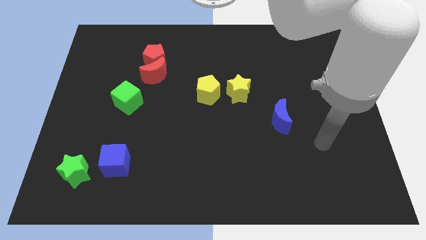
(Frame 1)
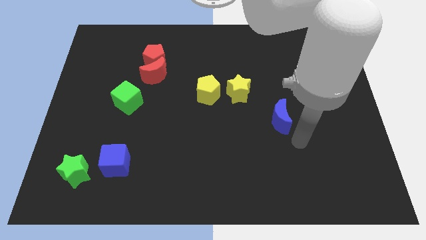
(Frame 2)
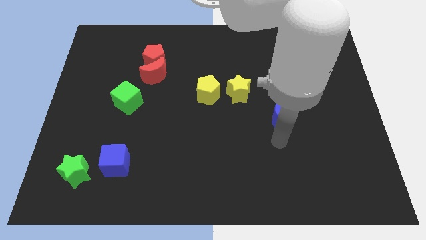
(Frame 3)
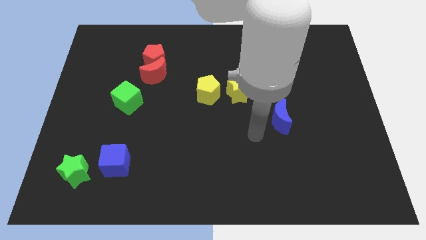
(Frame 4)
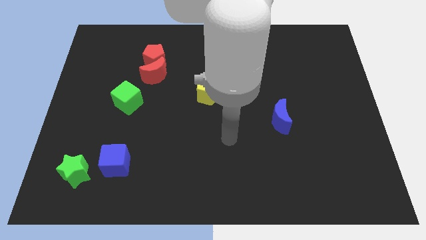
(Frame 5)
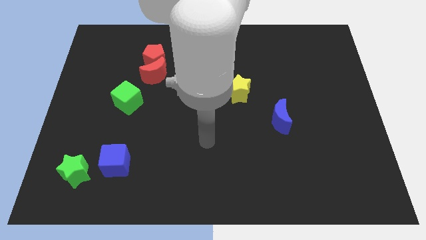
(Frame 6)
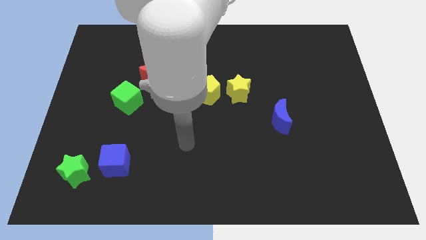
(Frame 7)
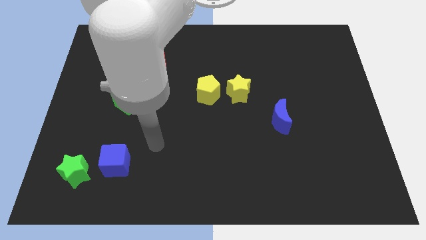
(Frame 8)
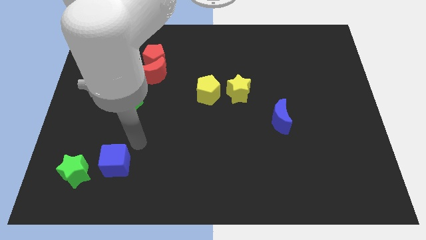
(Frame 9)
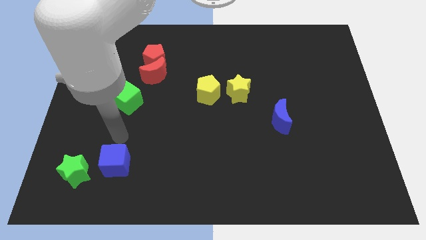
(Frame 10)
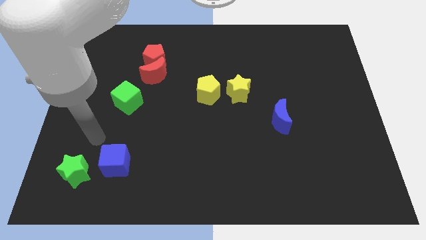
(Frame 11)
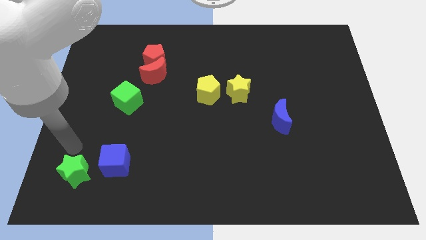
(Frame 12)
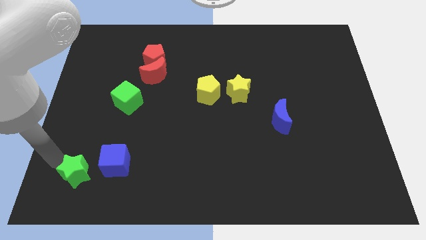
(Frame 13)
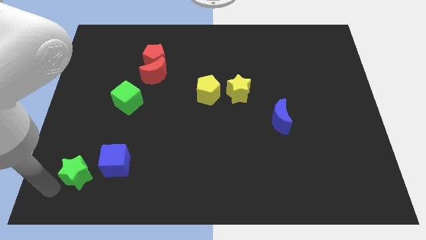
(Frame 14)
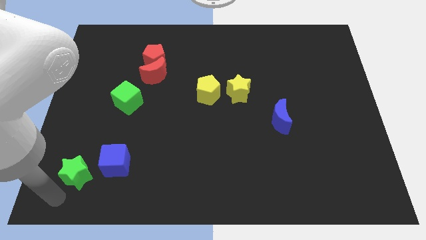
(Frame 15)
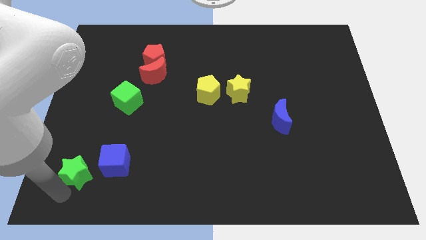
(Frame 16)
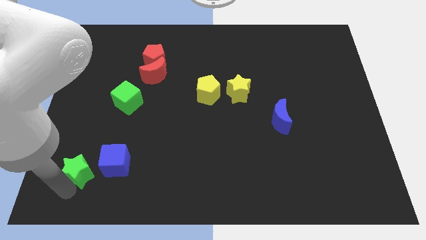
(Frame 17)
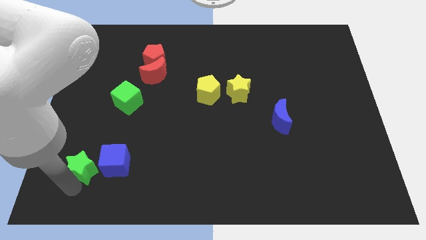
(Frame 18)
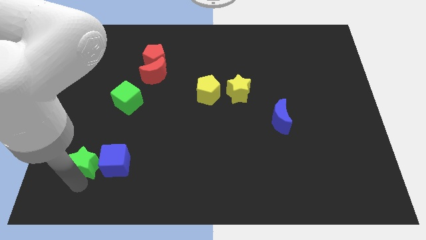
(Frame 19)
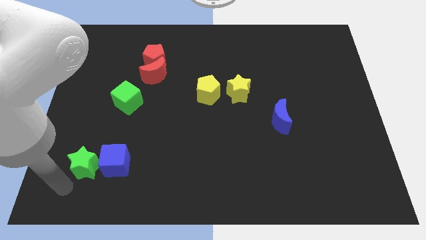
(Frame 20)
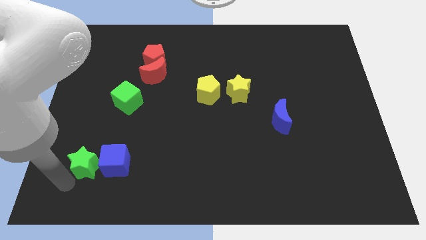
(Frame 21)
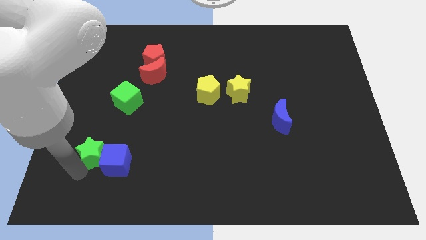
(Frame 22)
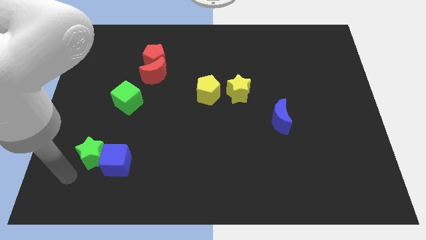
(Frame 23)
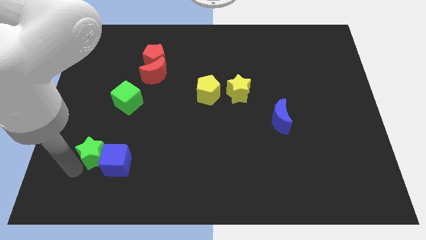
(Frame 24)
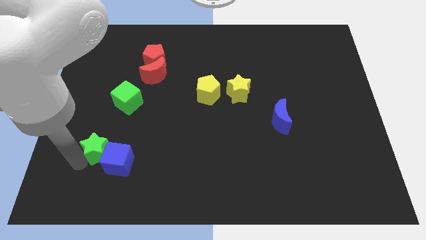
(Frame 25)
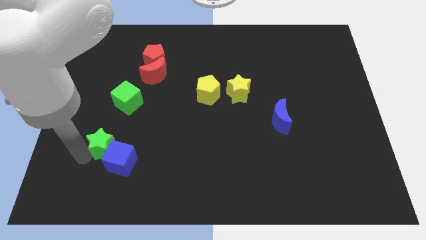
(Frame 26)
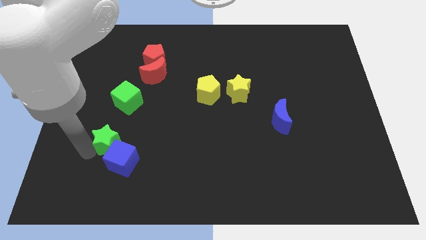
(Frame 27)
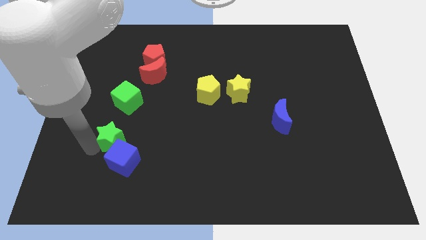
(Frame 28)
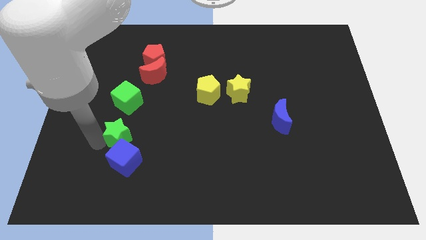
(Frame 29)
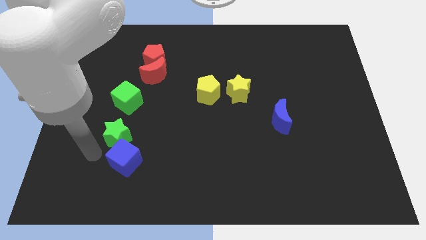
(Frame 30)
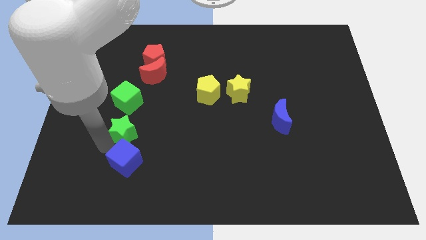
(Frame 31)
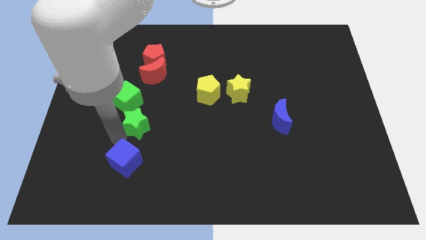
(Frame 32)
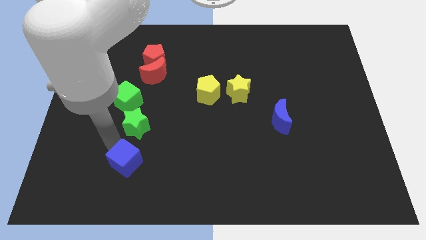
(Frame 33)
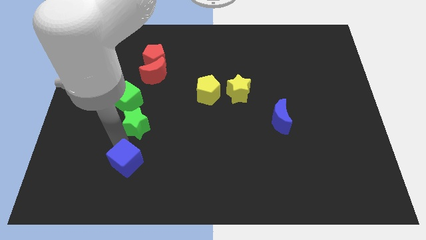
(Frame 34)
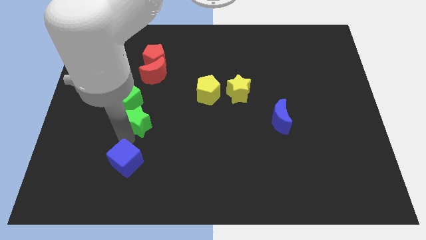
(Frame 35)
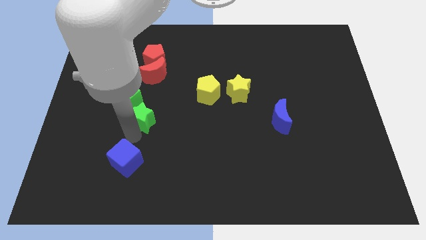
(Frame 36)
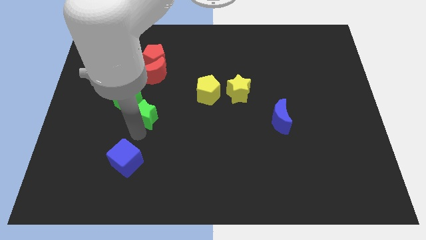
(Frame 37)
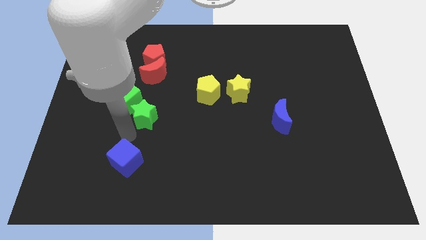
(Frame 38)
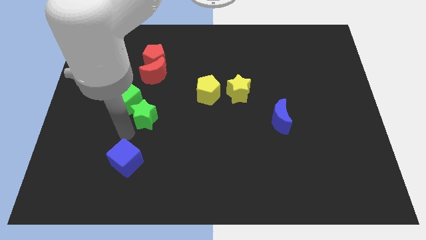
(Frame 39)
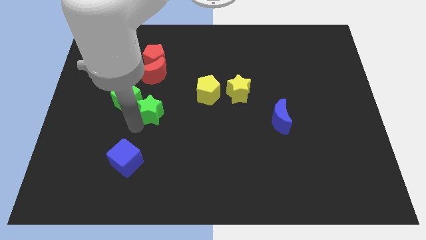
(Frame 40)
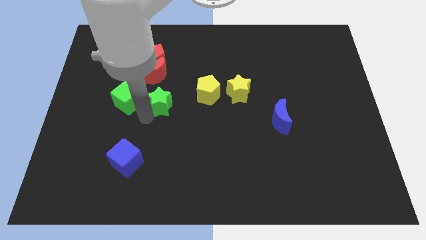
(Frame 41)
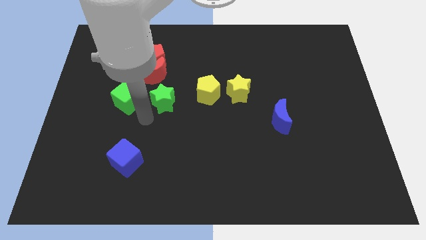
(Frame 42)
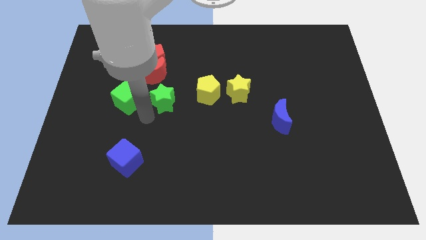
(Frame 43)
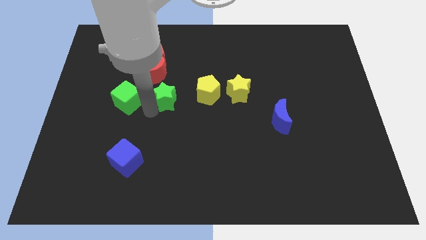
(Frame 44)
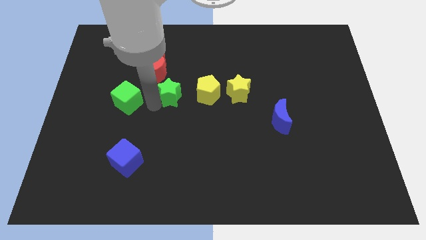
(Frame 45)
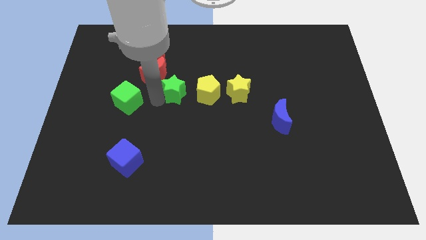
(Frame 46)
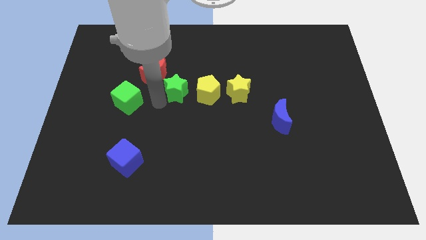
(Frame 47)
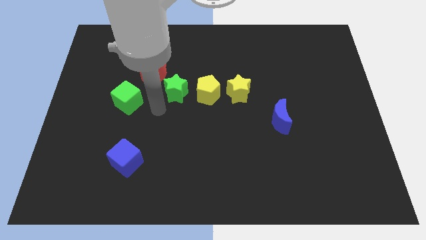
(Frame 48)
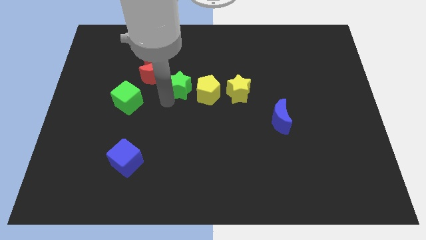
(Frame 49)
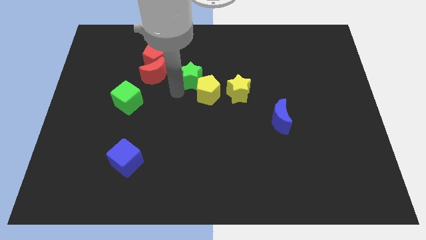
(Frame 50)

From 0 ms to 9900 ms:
put the green star above the yellow pentagon

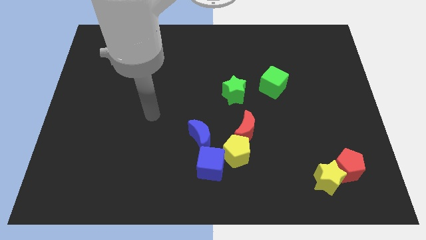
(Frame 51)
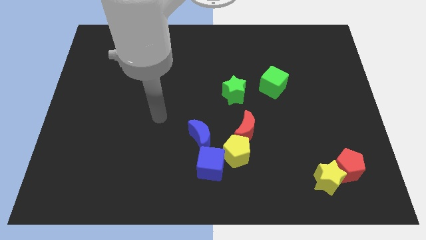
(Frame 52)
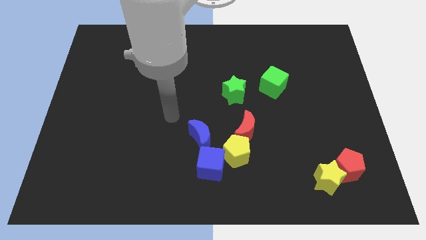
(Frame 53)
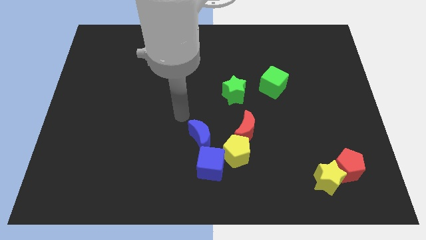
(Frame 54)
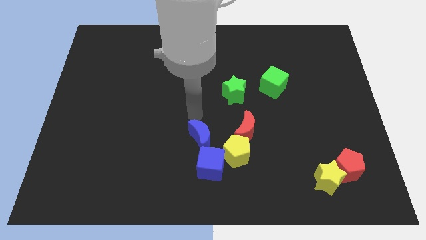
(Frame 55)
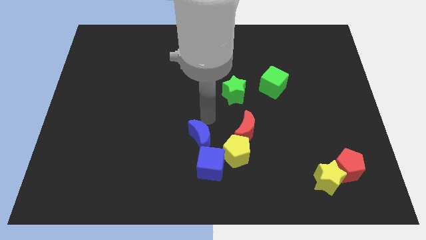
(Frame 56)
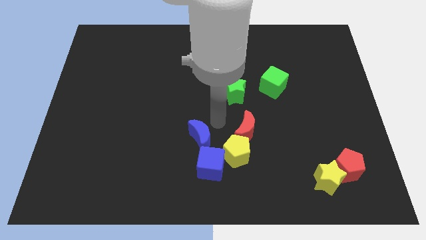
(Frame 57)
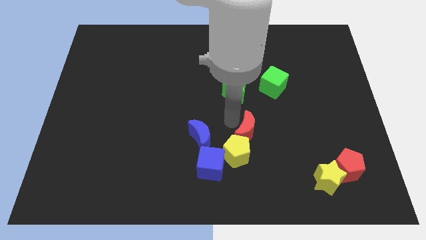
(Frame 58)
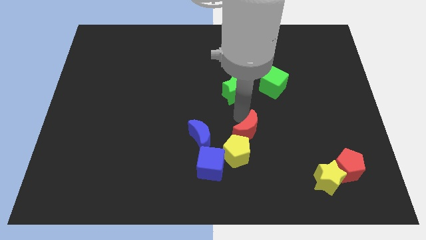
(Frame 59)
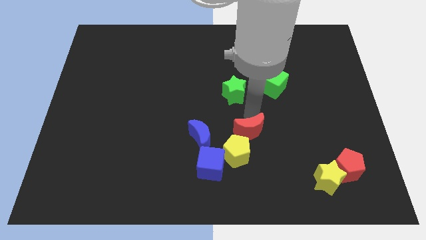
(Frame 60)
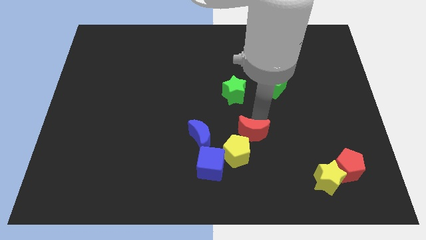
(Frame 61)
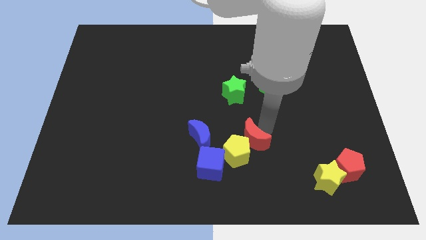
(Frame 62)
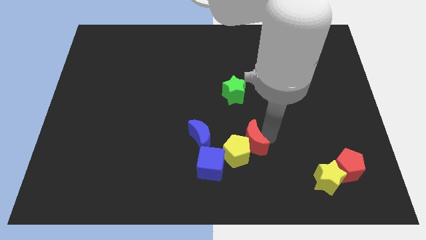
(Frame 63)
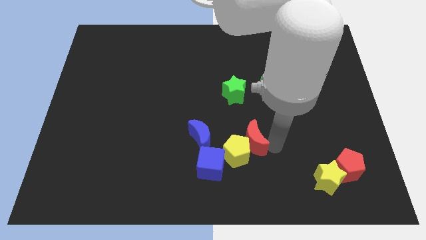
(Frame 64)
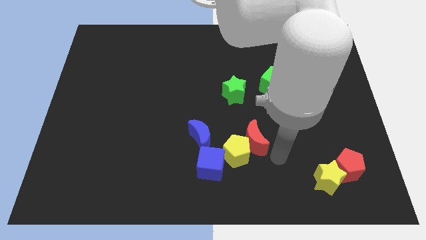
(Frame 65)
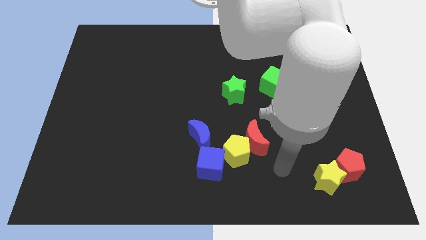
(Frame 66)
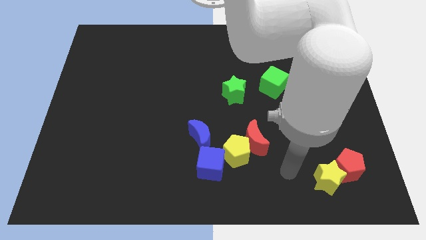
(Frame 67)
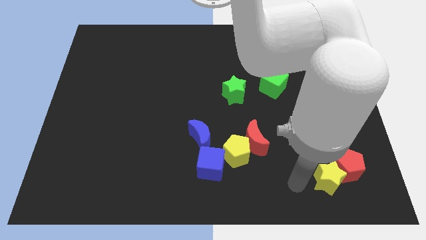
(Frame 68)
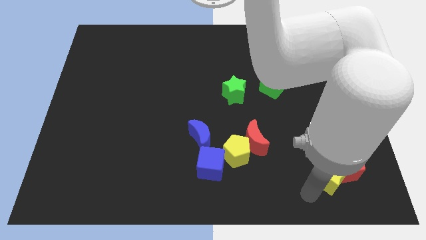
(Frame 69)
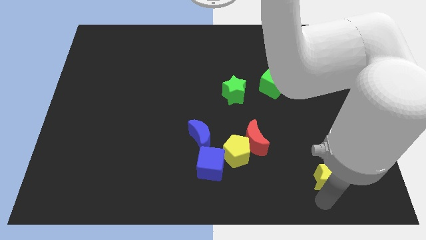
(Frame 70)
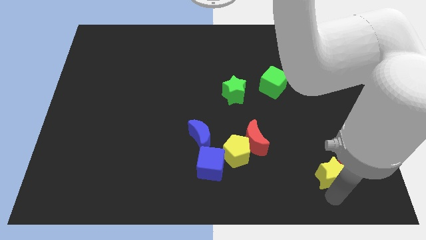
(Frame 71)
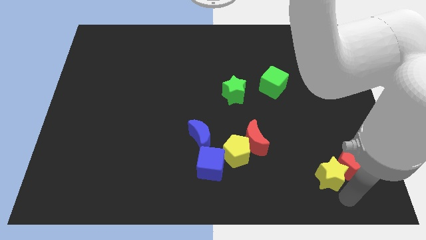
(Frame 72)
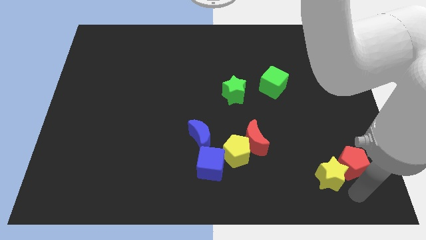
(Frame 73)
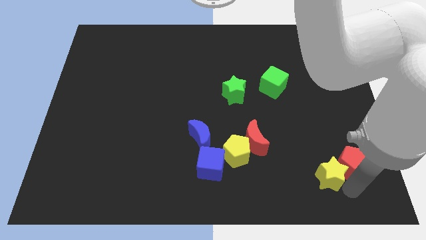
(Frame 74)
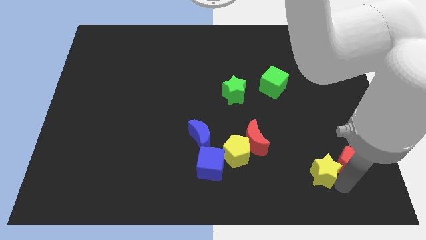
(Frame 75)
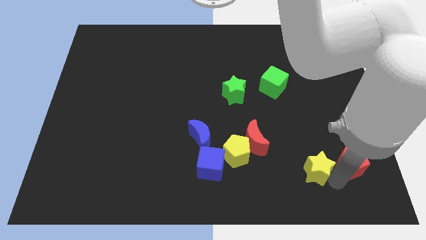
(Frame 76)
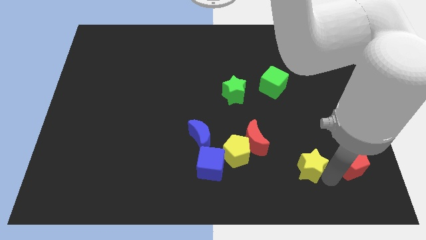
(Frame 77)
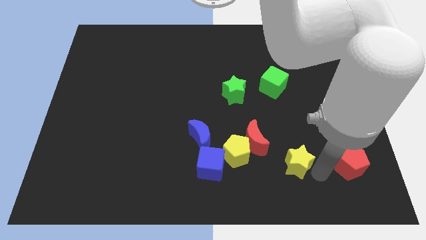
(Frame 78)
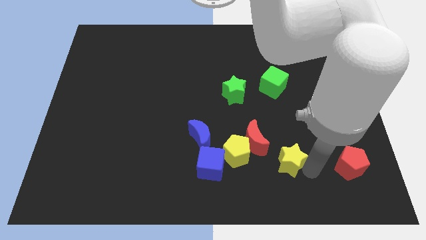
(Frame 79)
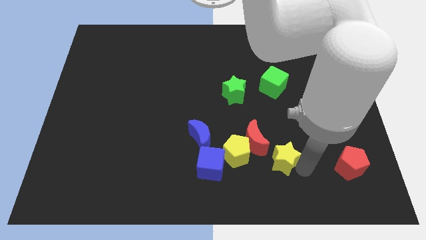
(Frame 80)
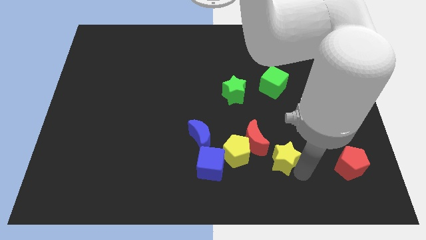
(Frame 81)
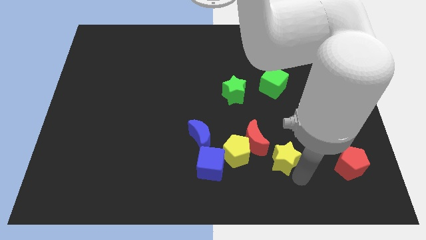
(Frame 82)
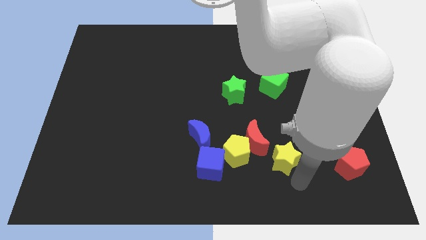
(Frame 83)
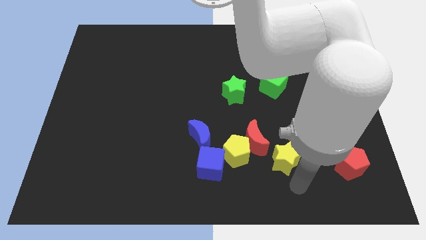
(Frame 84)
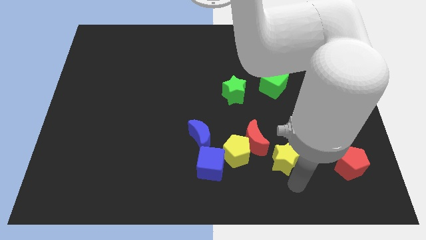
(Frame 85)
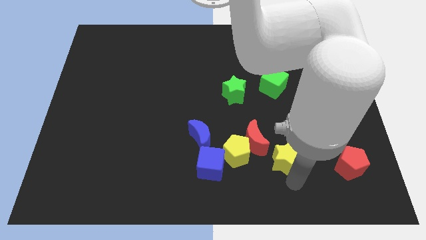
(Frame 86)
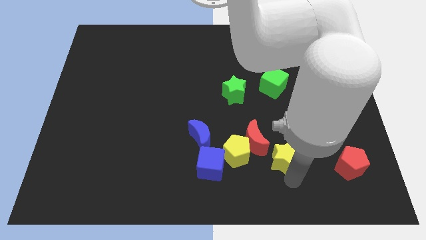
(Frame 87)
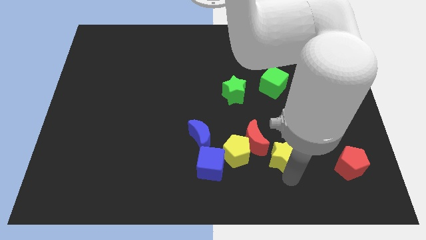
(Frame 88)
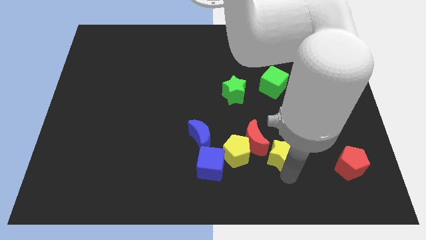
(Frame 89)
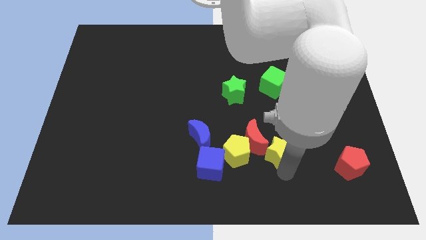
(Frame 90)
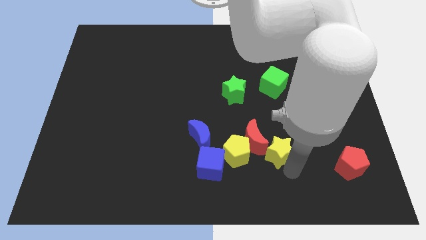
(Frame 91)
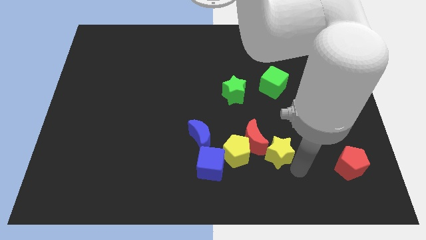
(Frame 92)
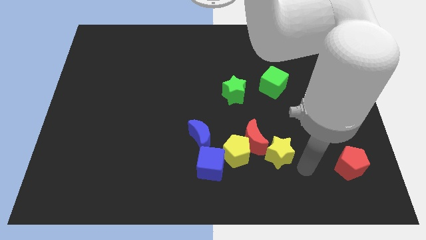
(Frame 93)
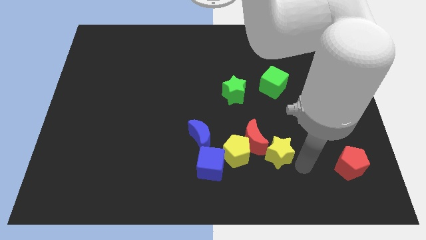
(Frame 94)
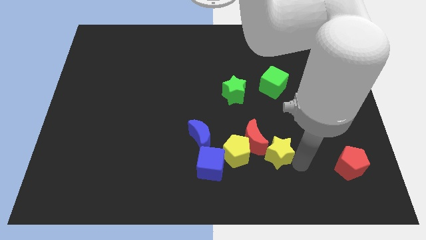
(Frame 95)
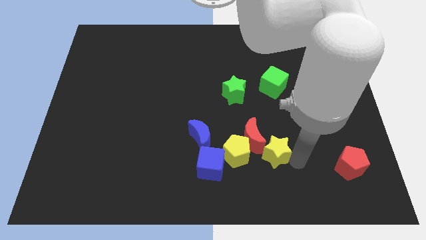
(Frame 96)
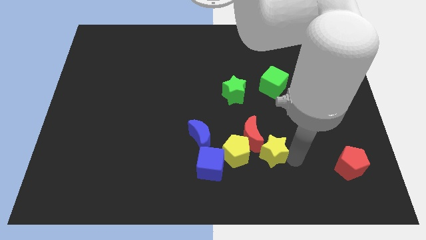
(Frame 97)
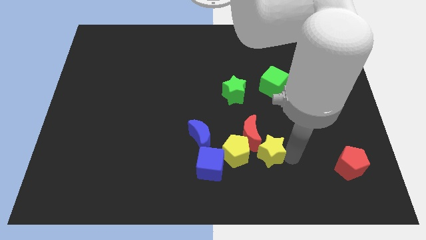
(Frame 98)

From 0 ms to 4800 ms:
push the yellow star right of the blue moon
